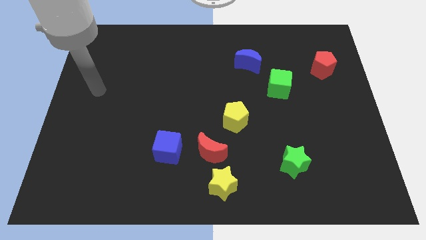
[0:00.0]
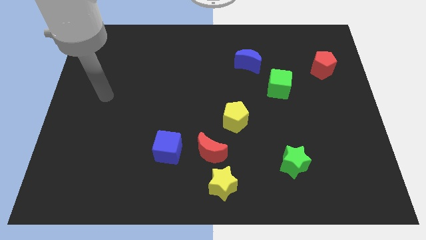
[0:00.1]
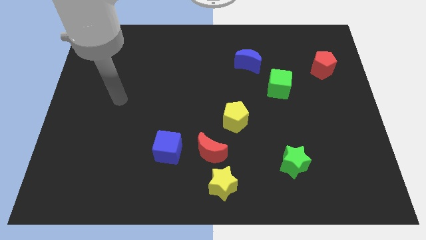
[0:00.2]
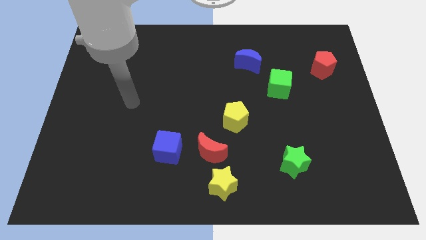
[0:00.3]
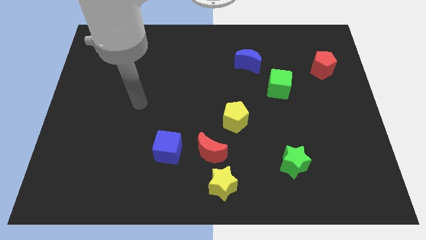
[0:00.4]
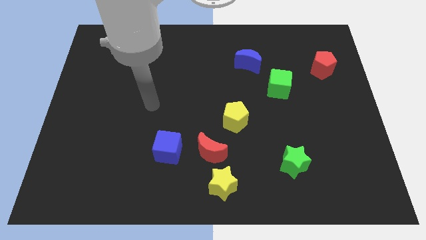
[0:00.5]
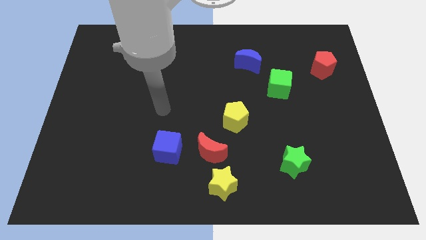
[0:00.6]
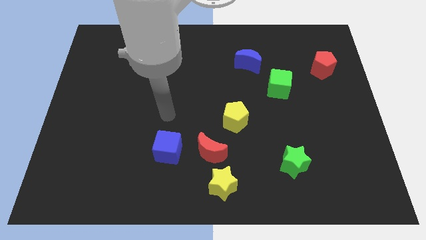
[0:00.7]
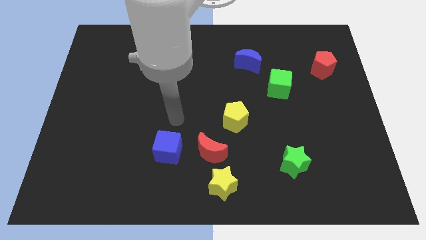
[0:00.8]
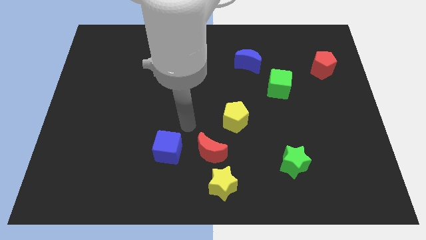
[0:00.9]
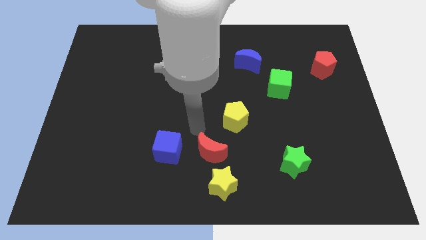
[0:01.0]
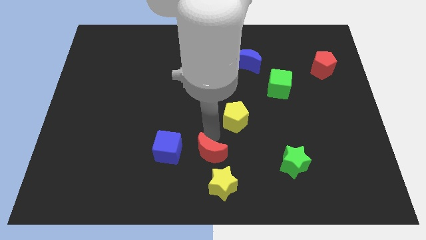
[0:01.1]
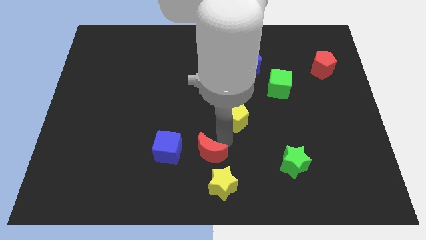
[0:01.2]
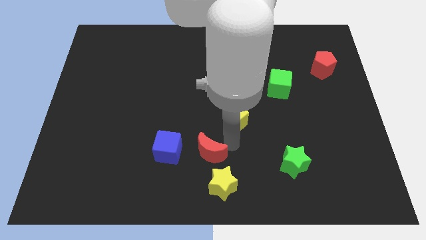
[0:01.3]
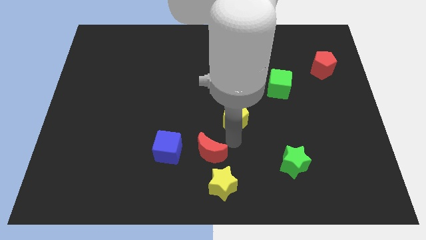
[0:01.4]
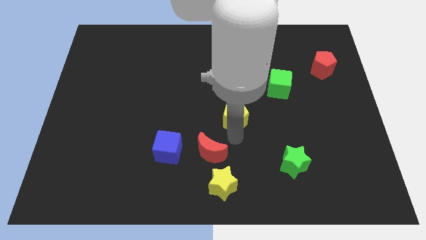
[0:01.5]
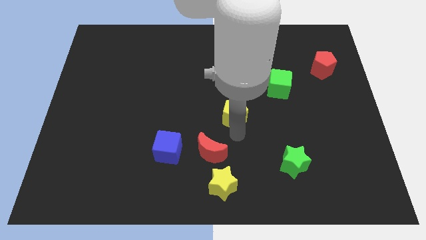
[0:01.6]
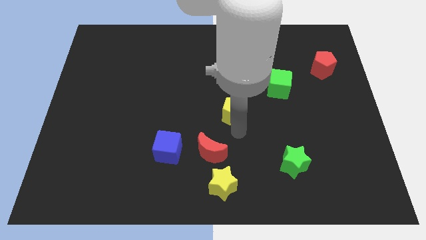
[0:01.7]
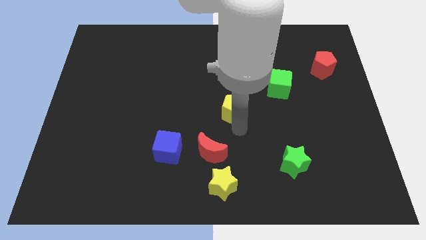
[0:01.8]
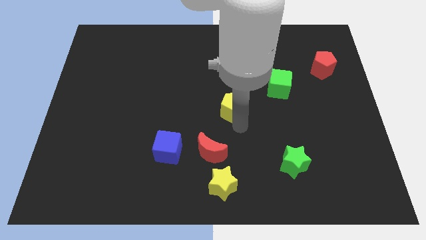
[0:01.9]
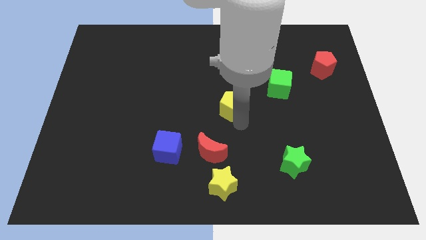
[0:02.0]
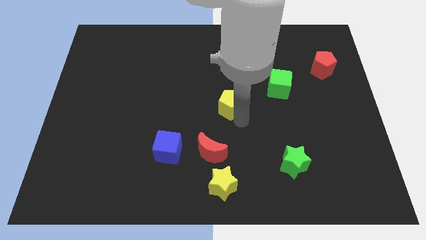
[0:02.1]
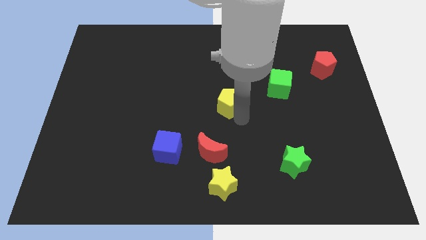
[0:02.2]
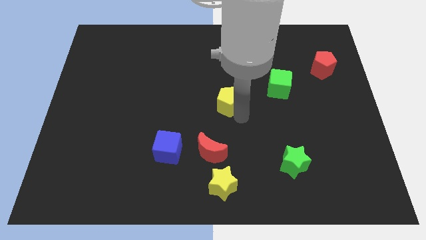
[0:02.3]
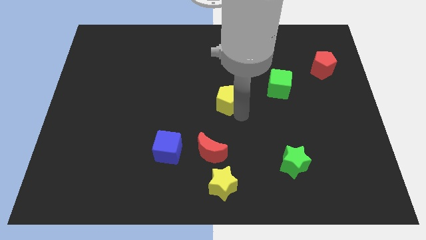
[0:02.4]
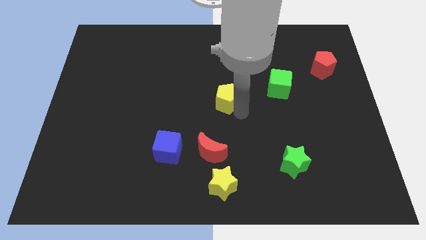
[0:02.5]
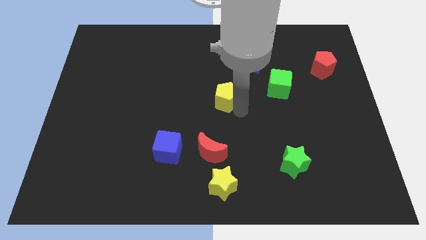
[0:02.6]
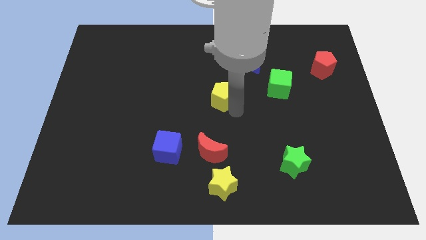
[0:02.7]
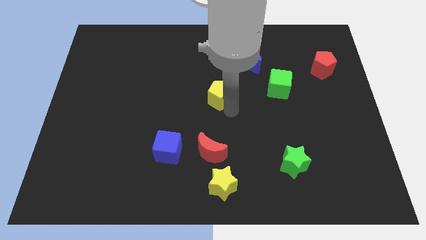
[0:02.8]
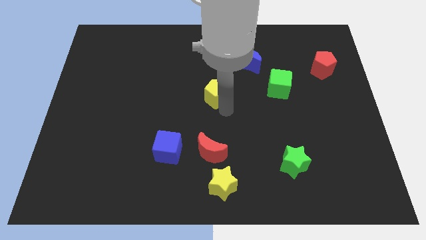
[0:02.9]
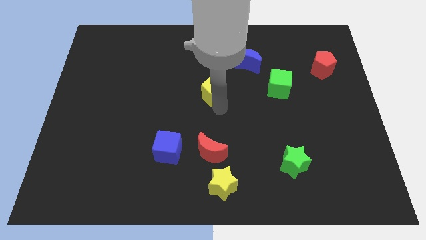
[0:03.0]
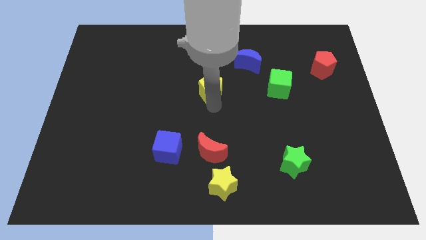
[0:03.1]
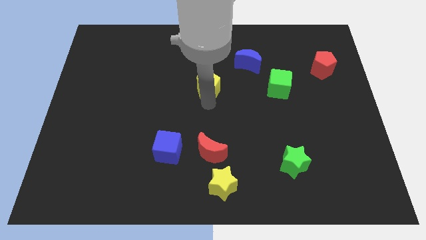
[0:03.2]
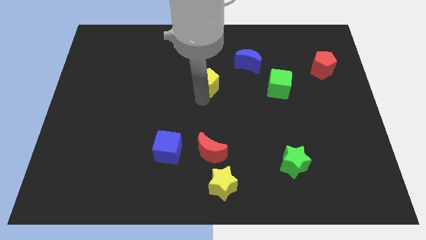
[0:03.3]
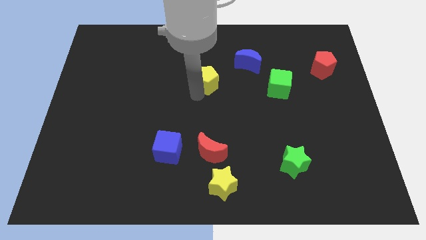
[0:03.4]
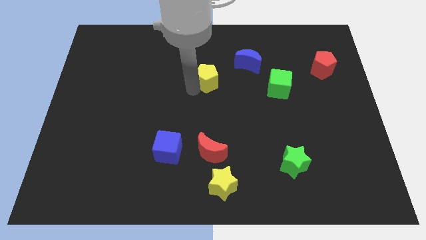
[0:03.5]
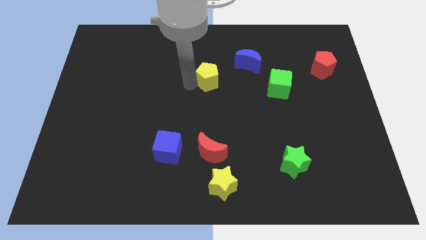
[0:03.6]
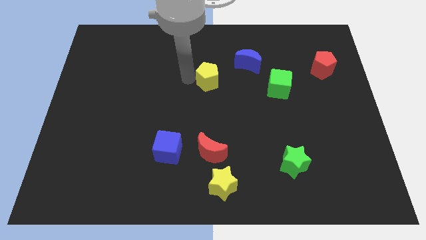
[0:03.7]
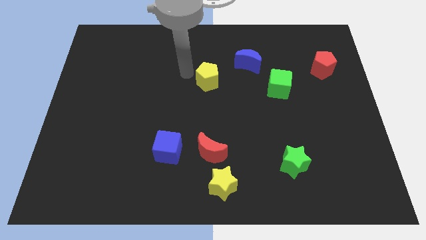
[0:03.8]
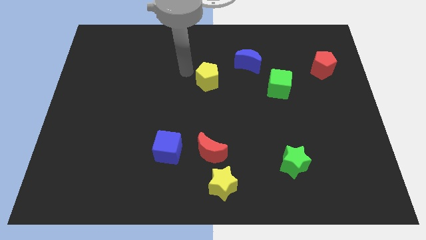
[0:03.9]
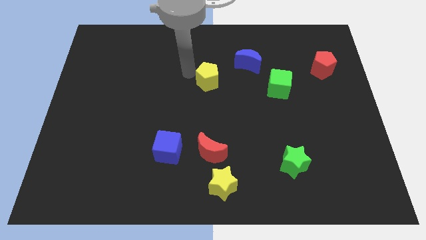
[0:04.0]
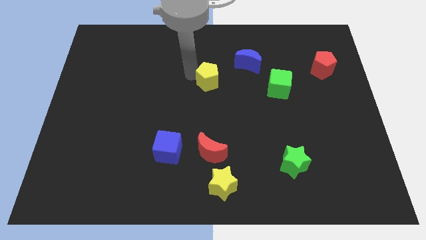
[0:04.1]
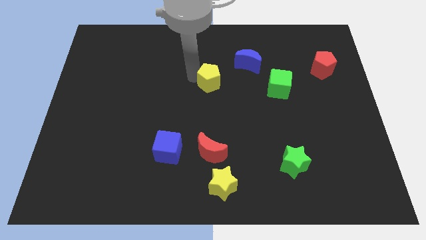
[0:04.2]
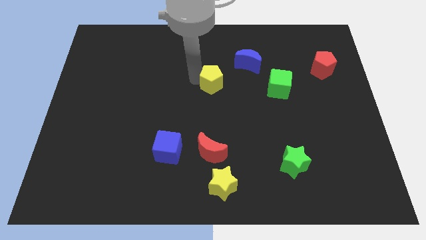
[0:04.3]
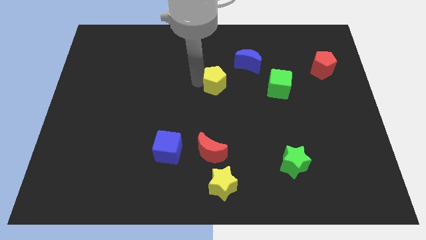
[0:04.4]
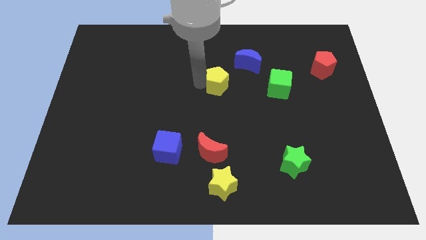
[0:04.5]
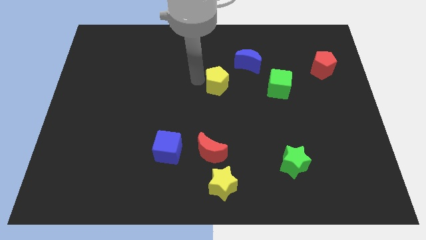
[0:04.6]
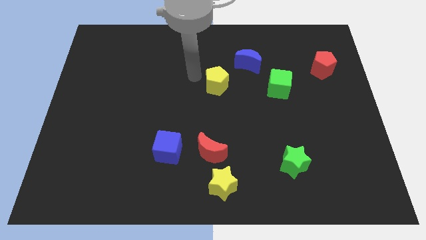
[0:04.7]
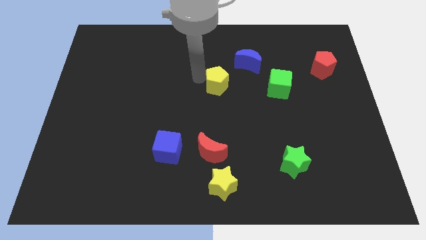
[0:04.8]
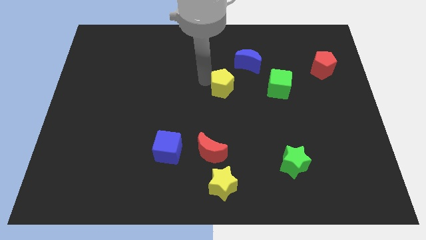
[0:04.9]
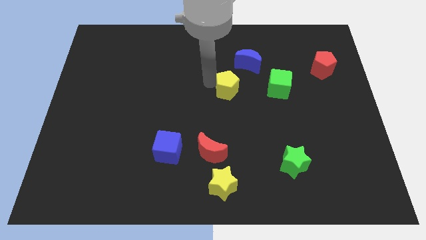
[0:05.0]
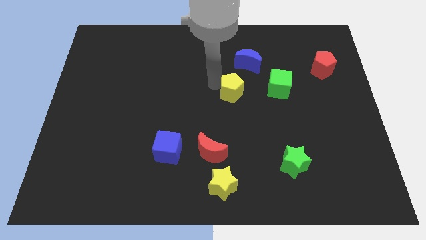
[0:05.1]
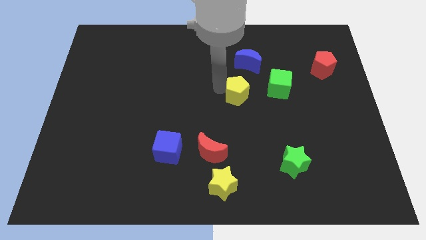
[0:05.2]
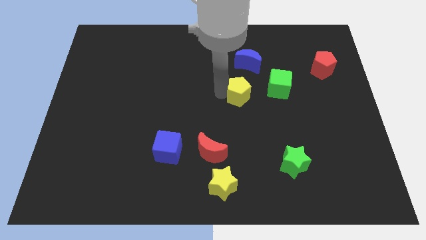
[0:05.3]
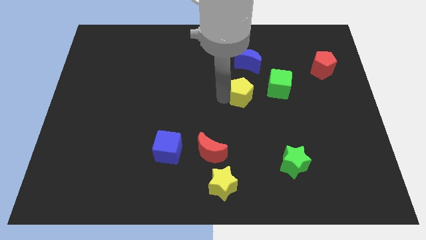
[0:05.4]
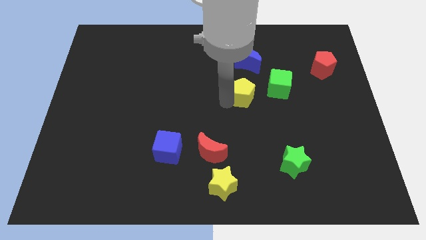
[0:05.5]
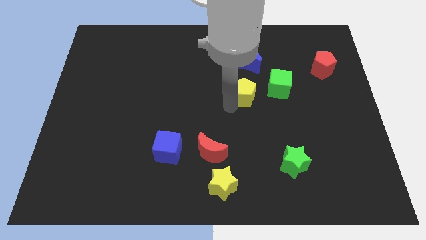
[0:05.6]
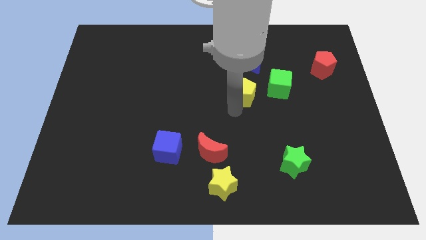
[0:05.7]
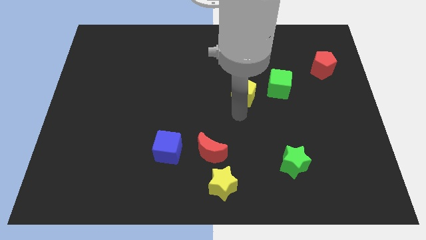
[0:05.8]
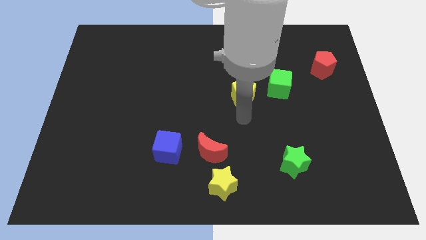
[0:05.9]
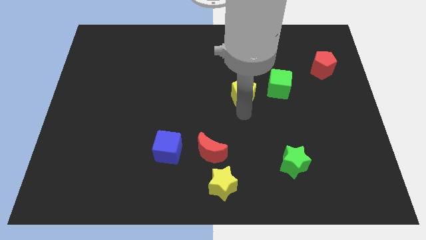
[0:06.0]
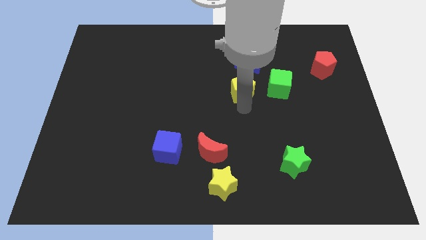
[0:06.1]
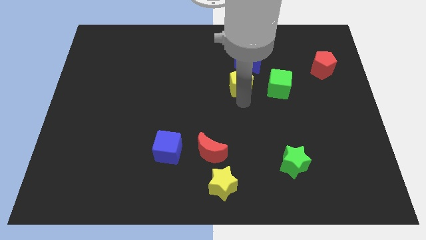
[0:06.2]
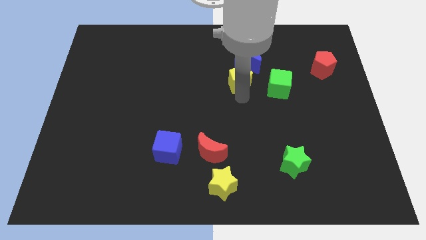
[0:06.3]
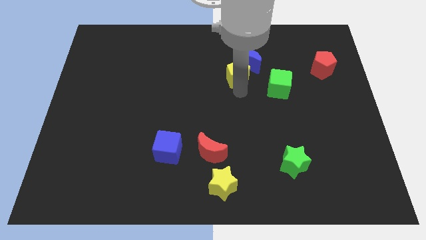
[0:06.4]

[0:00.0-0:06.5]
put the yellow pentagon to the blue moon

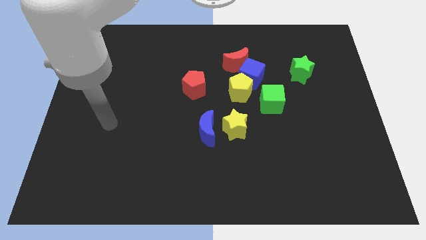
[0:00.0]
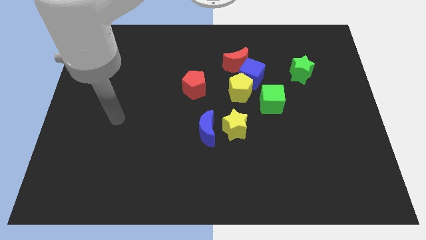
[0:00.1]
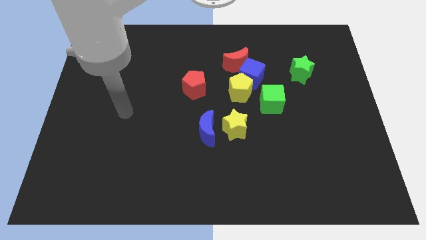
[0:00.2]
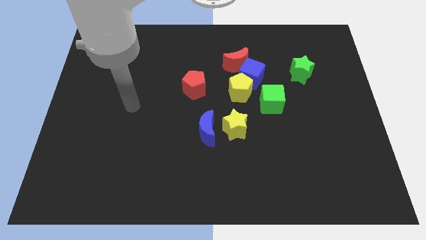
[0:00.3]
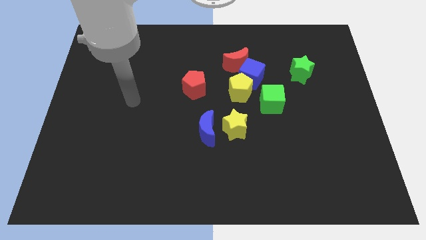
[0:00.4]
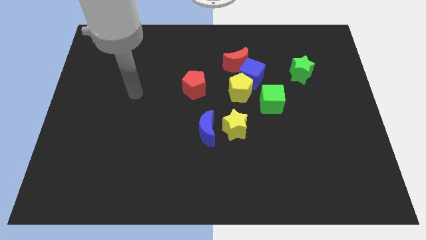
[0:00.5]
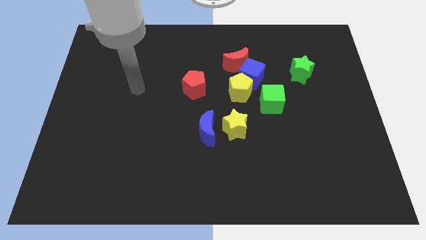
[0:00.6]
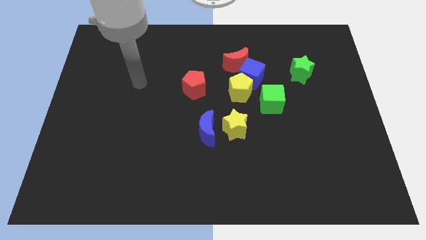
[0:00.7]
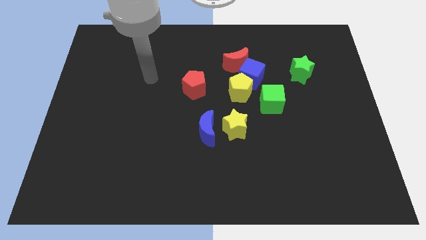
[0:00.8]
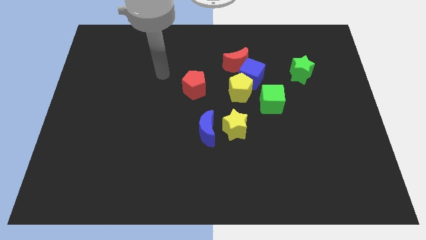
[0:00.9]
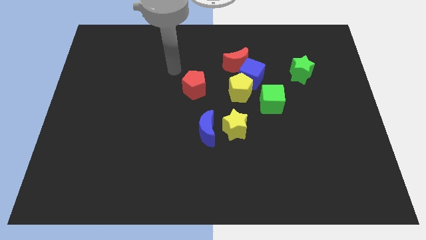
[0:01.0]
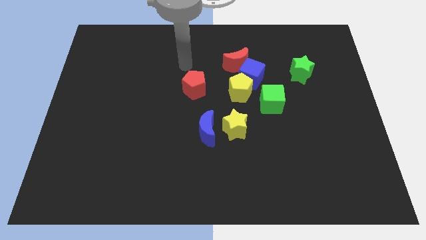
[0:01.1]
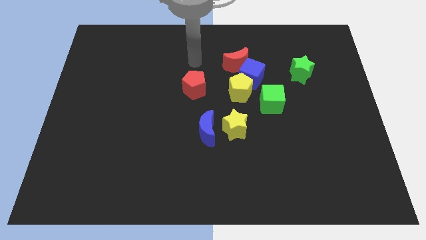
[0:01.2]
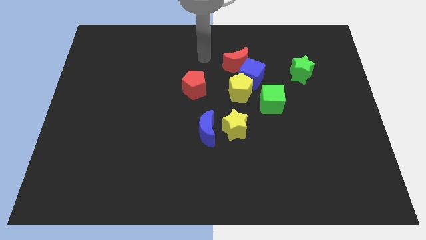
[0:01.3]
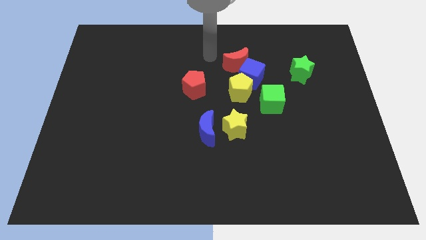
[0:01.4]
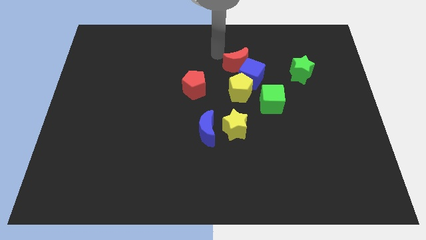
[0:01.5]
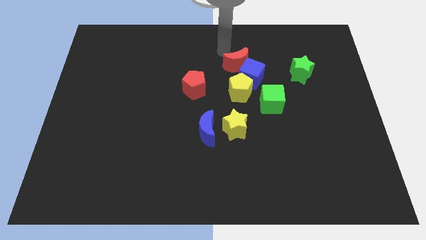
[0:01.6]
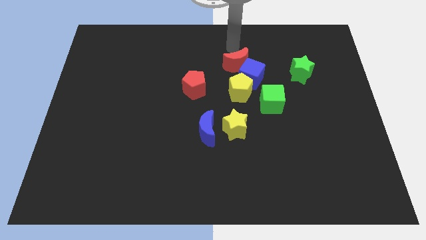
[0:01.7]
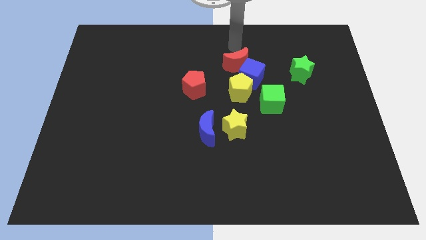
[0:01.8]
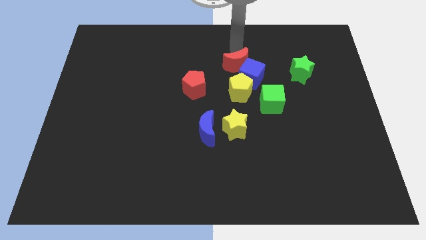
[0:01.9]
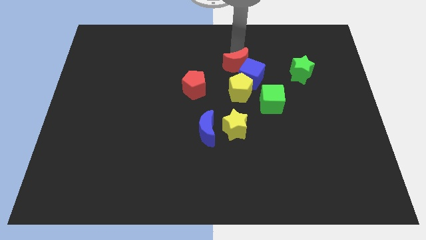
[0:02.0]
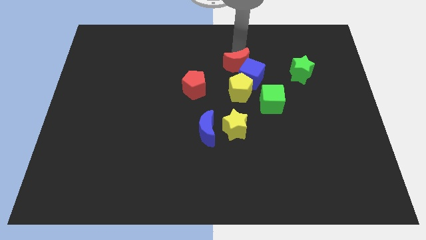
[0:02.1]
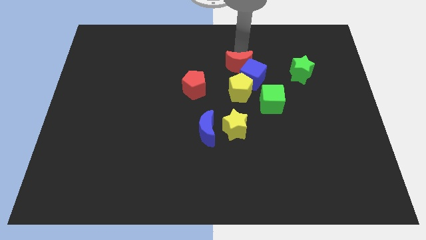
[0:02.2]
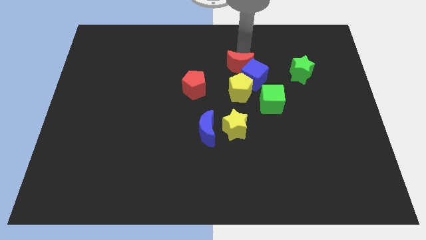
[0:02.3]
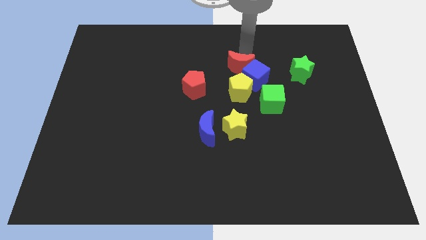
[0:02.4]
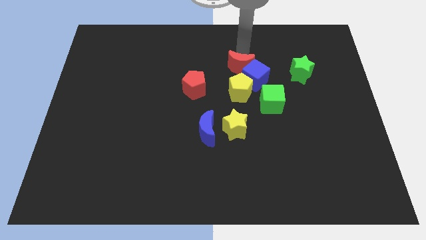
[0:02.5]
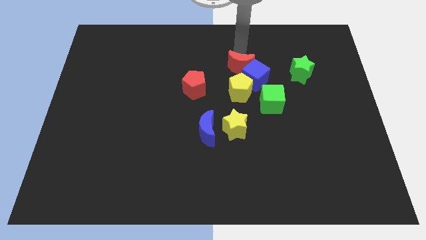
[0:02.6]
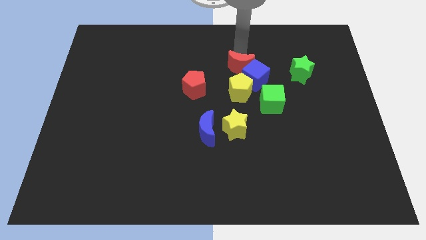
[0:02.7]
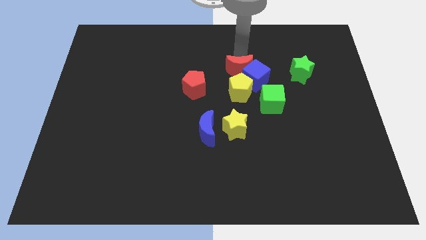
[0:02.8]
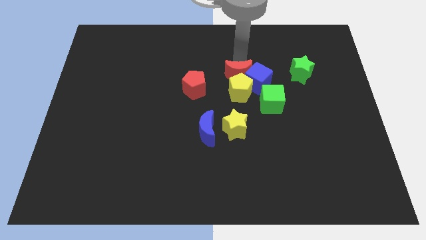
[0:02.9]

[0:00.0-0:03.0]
slide the red moon towards the yellow pentagon
